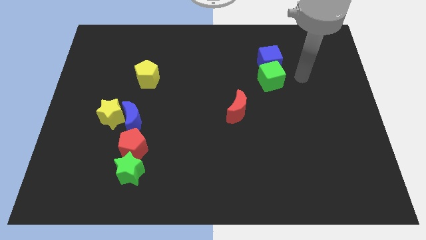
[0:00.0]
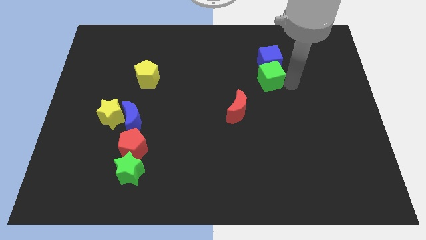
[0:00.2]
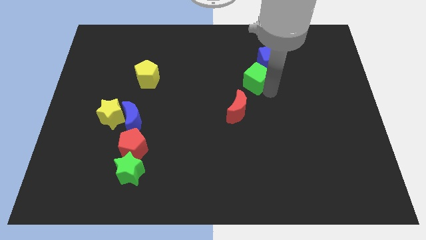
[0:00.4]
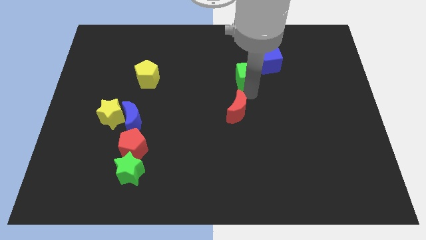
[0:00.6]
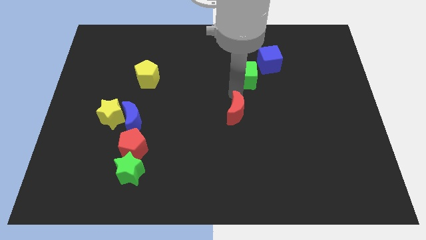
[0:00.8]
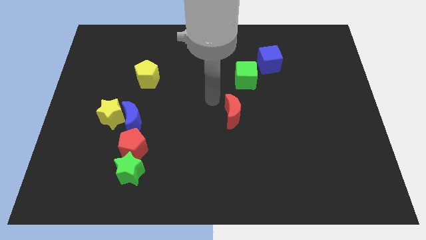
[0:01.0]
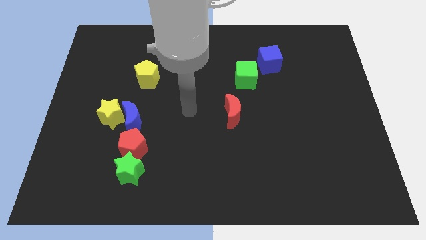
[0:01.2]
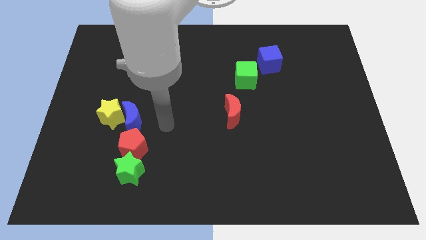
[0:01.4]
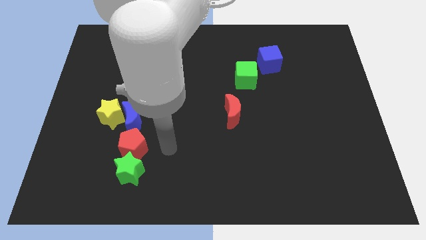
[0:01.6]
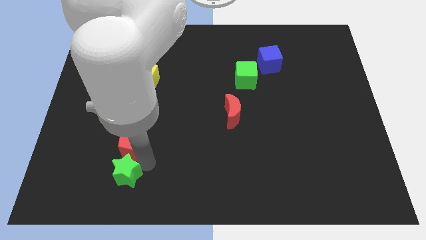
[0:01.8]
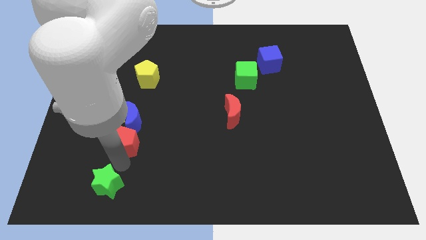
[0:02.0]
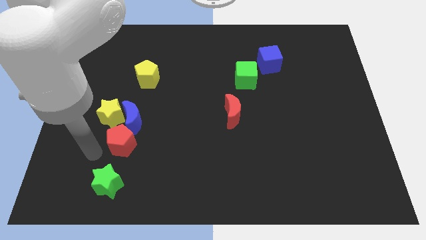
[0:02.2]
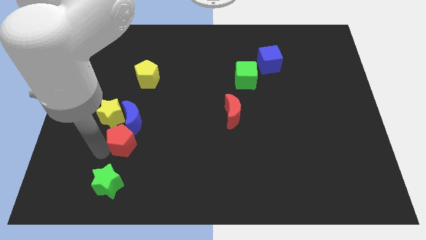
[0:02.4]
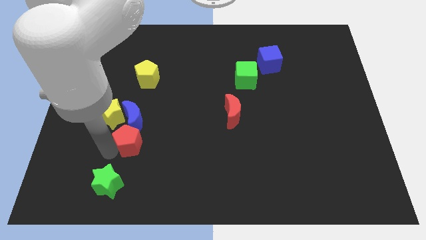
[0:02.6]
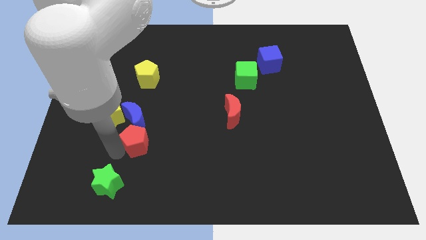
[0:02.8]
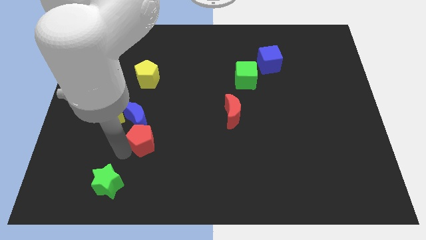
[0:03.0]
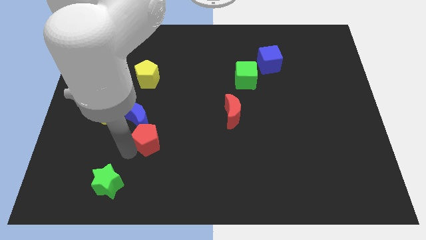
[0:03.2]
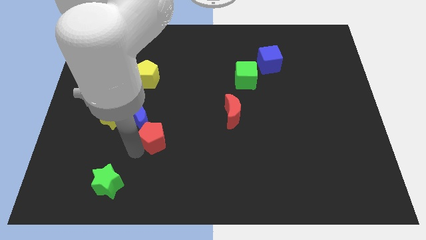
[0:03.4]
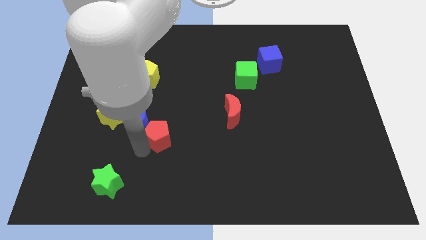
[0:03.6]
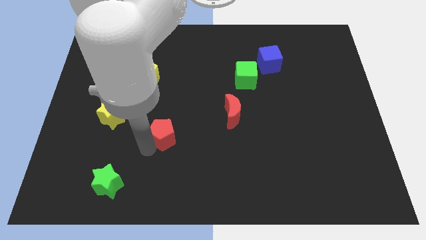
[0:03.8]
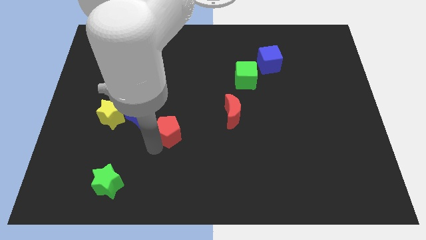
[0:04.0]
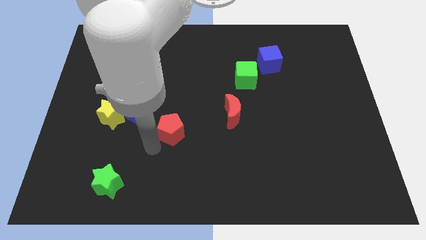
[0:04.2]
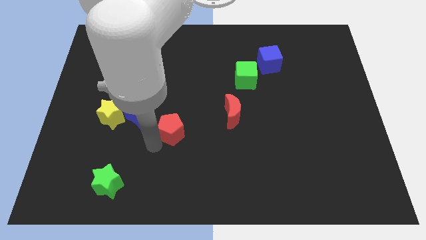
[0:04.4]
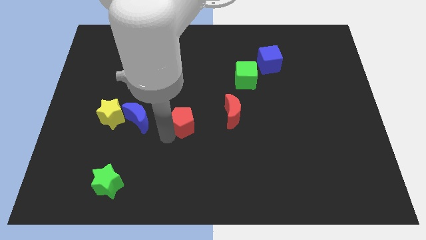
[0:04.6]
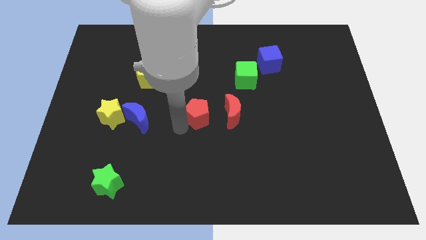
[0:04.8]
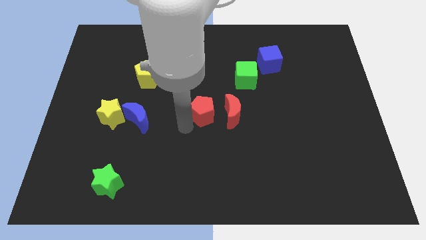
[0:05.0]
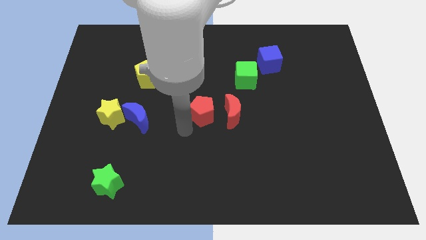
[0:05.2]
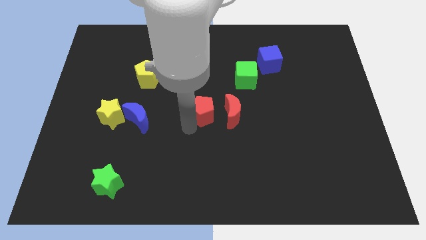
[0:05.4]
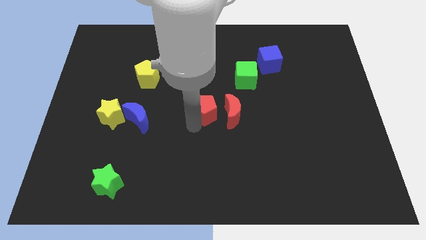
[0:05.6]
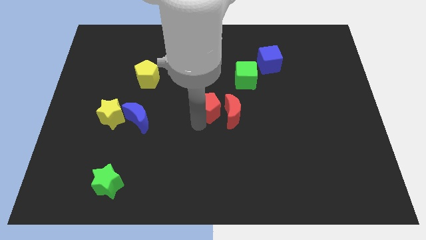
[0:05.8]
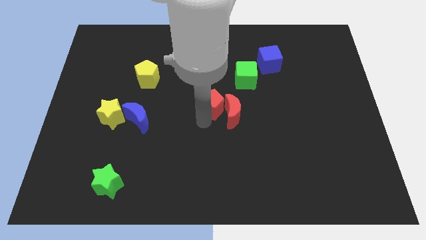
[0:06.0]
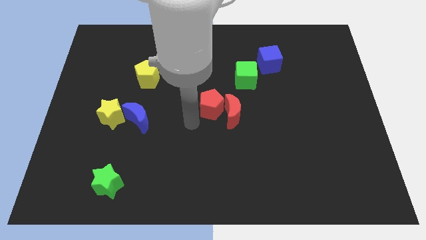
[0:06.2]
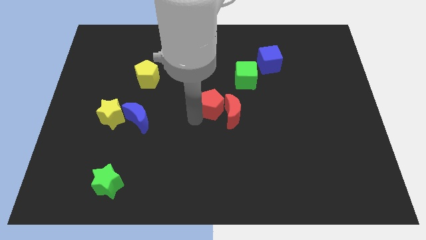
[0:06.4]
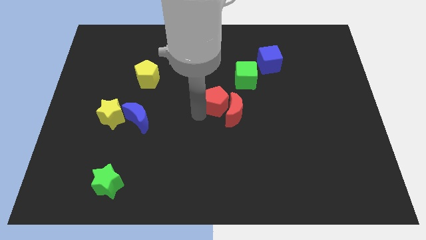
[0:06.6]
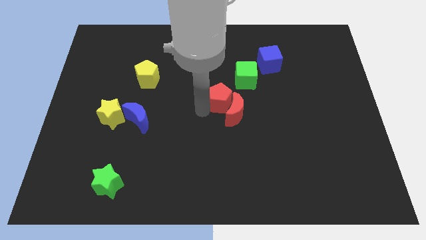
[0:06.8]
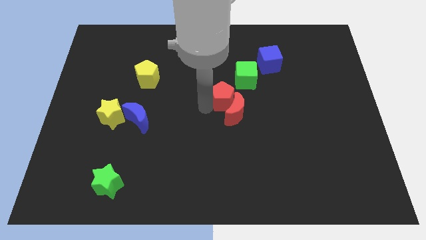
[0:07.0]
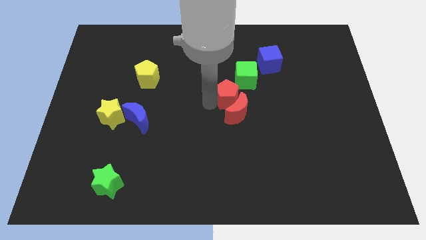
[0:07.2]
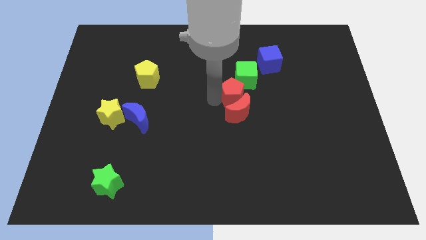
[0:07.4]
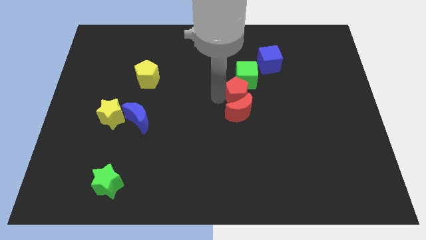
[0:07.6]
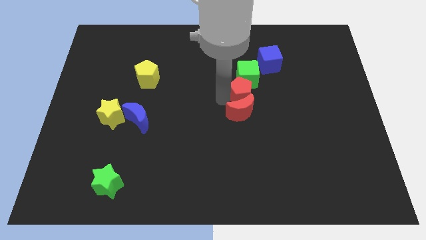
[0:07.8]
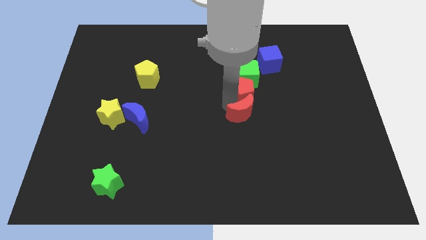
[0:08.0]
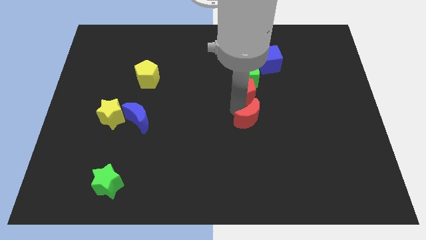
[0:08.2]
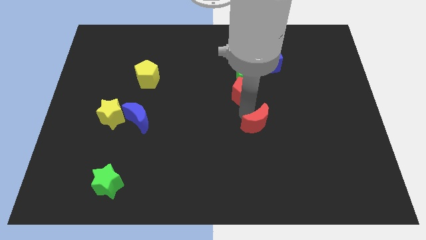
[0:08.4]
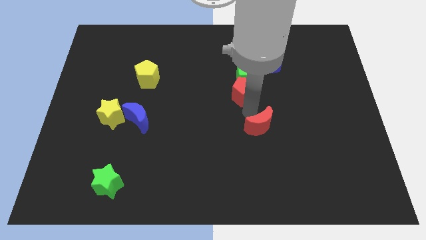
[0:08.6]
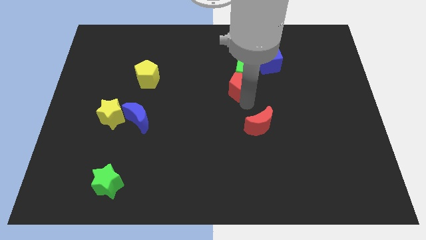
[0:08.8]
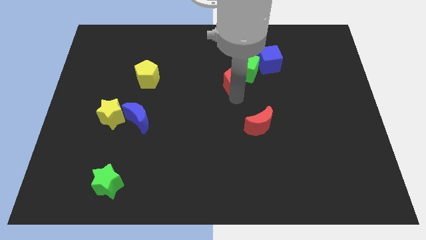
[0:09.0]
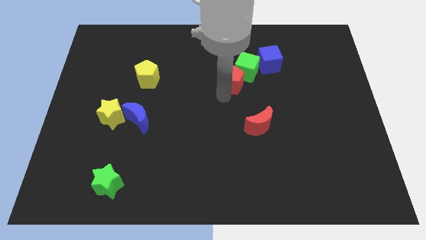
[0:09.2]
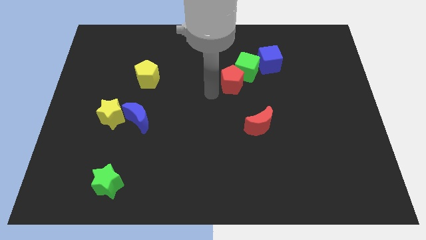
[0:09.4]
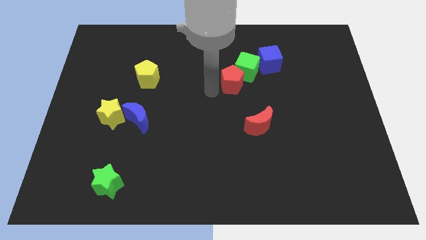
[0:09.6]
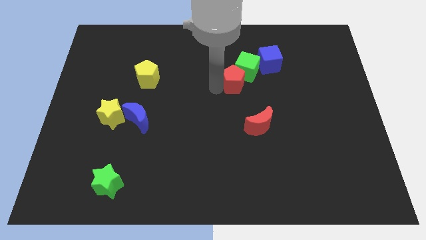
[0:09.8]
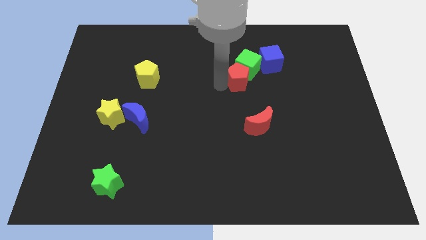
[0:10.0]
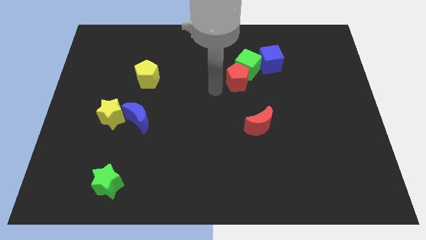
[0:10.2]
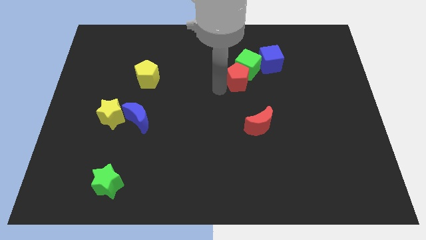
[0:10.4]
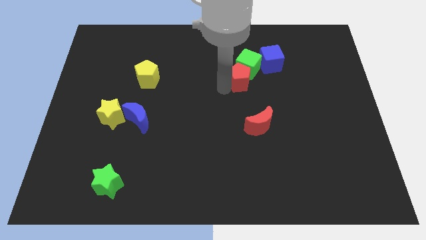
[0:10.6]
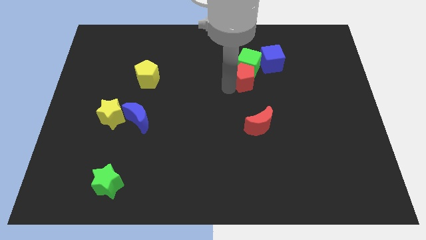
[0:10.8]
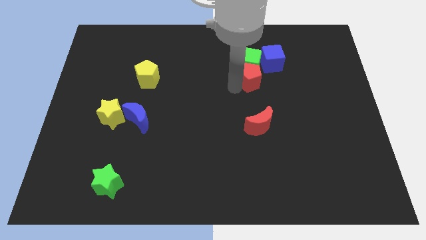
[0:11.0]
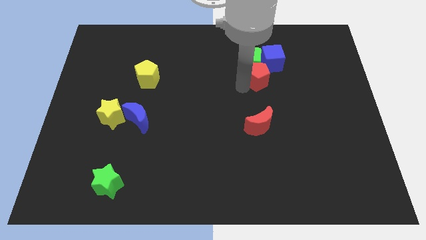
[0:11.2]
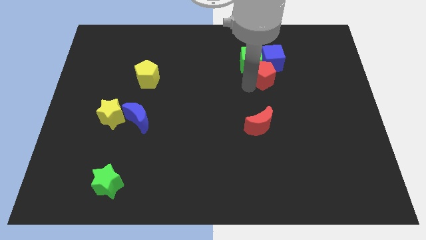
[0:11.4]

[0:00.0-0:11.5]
push the red pentagon to the blue cube
